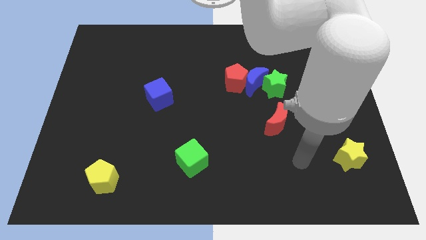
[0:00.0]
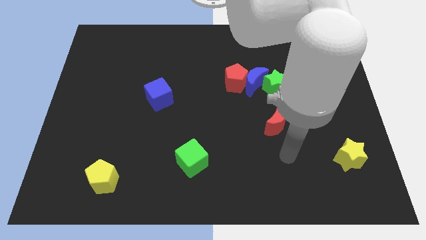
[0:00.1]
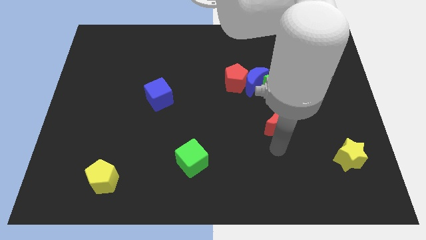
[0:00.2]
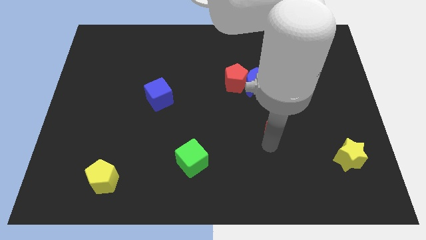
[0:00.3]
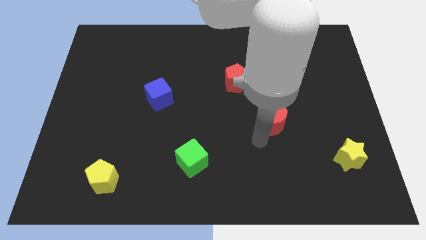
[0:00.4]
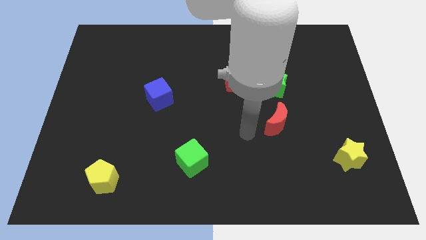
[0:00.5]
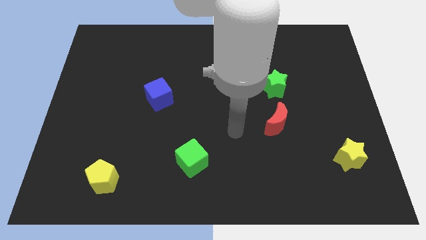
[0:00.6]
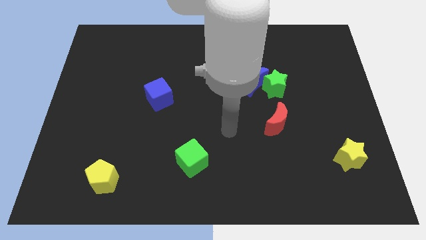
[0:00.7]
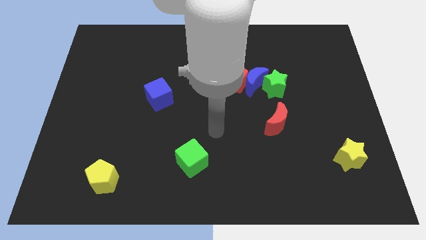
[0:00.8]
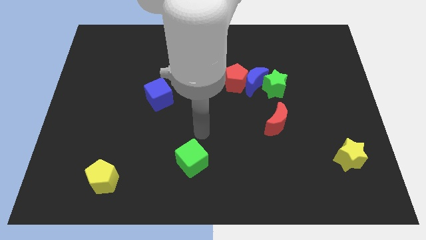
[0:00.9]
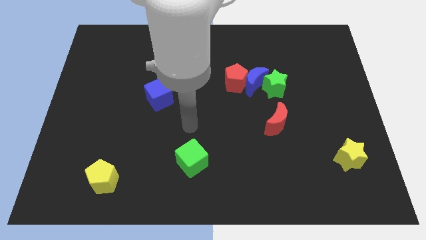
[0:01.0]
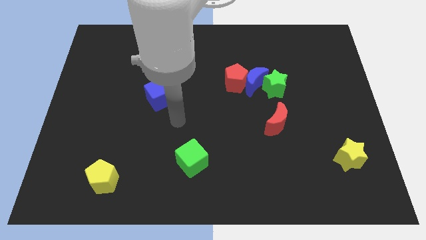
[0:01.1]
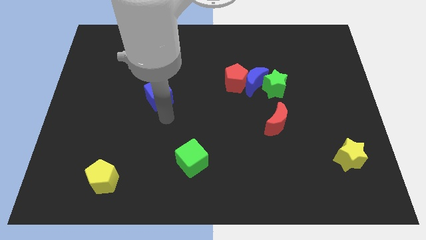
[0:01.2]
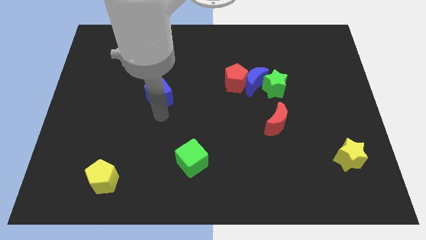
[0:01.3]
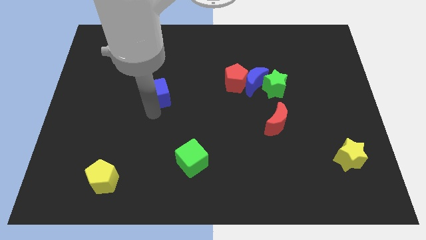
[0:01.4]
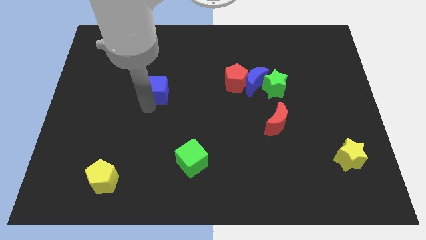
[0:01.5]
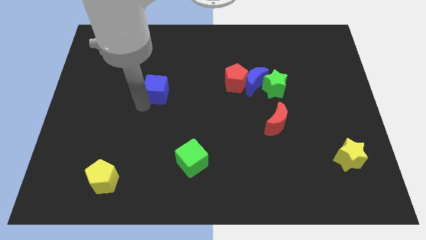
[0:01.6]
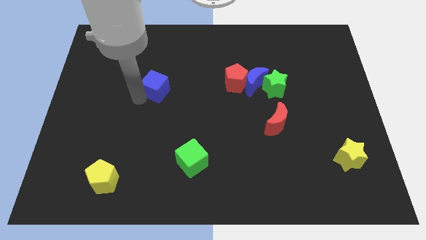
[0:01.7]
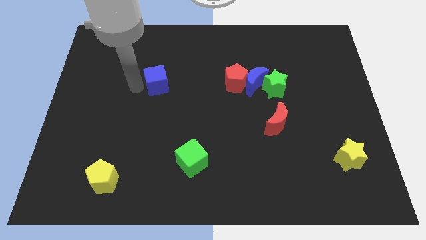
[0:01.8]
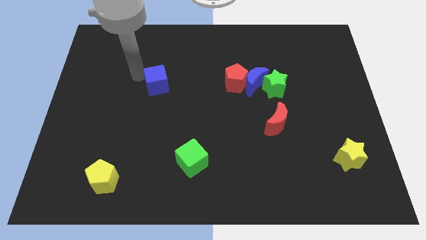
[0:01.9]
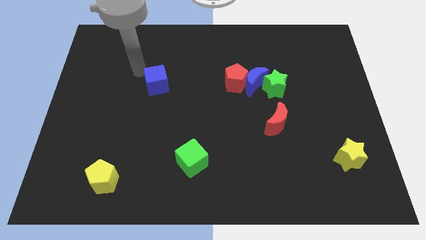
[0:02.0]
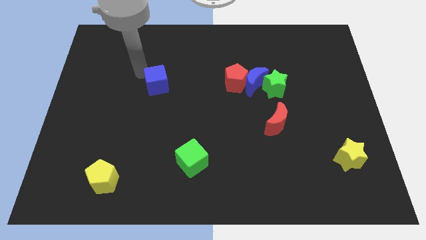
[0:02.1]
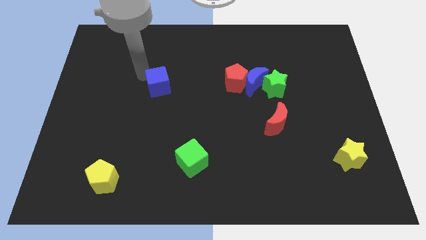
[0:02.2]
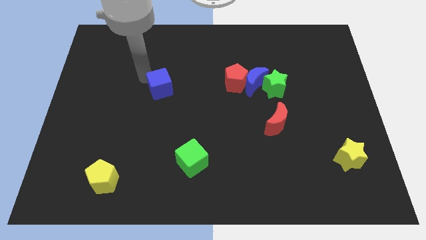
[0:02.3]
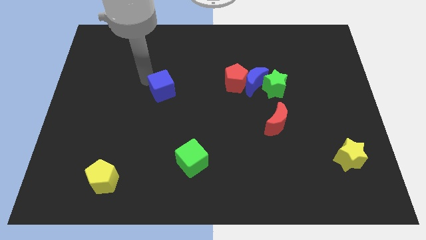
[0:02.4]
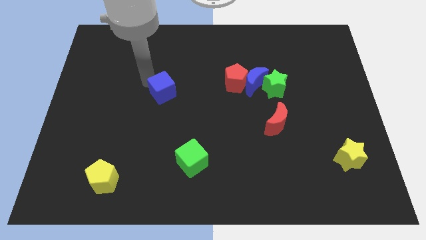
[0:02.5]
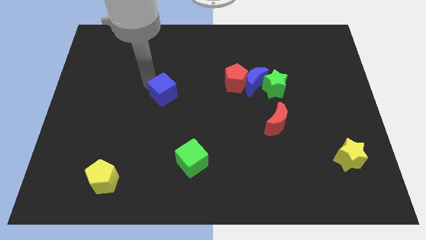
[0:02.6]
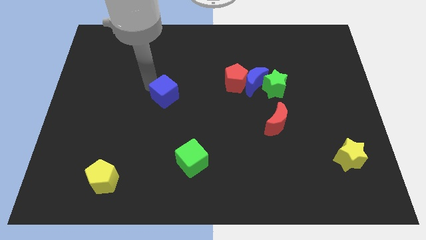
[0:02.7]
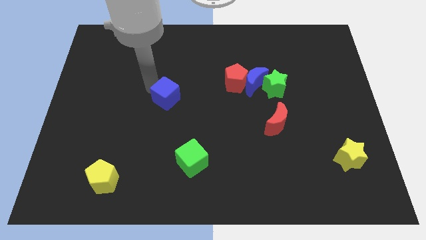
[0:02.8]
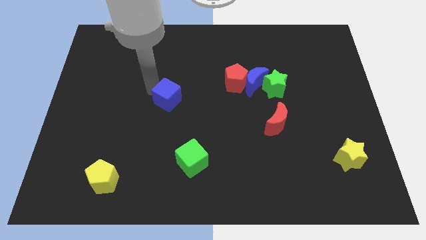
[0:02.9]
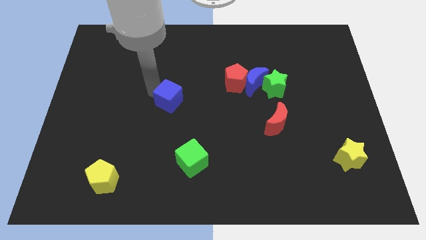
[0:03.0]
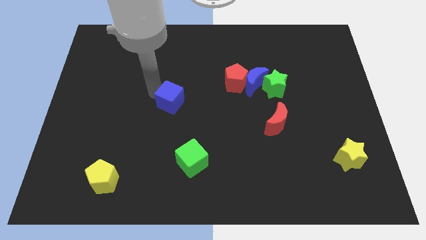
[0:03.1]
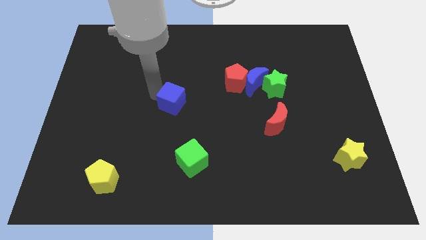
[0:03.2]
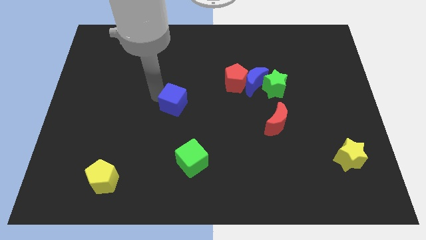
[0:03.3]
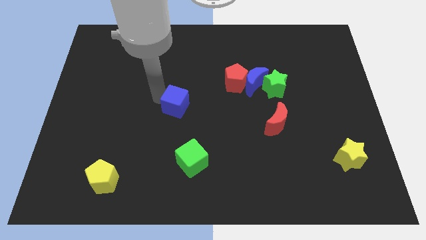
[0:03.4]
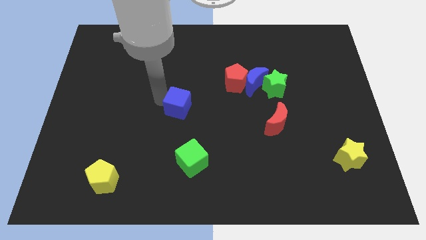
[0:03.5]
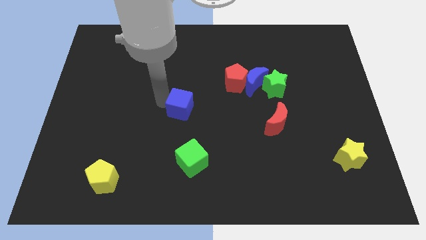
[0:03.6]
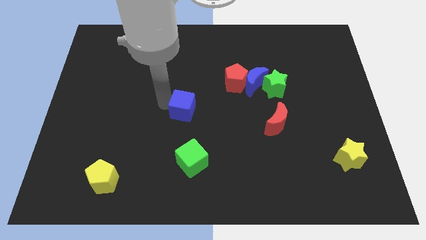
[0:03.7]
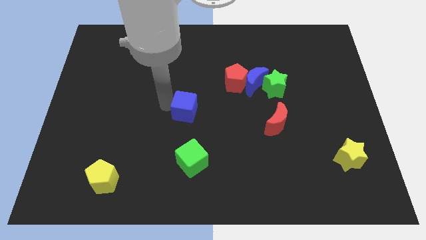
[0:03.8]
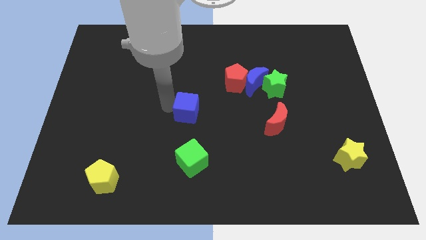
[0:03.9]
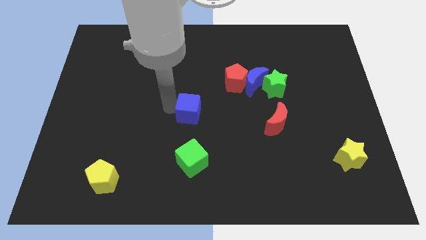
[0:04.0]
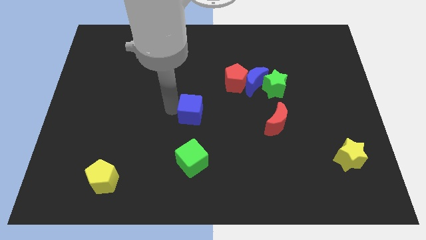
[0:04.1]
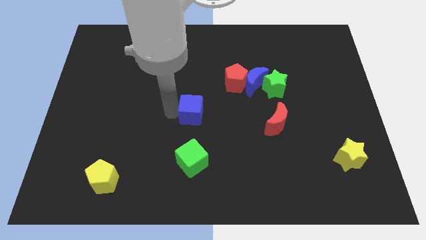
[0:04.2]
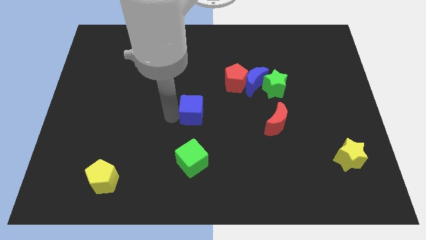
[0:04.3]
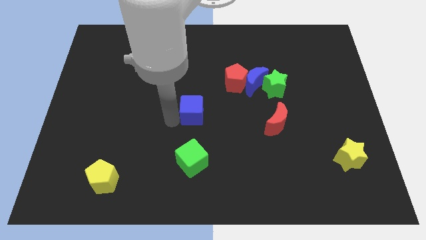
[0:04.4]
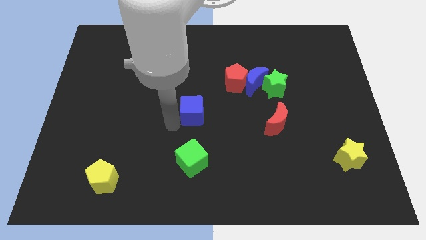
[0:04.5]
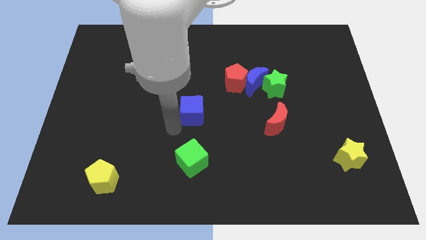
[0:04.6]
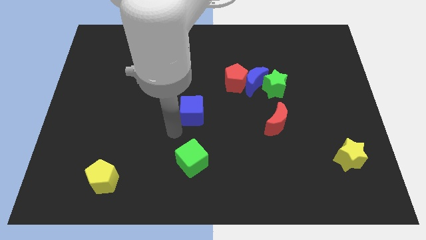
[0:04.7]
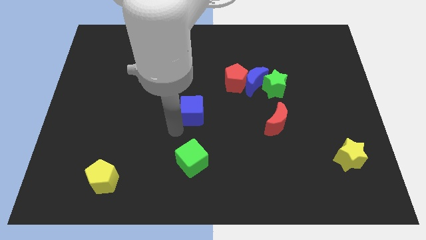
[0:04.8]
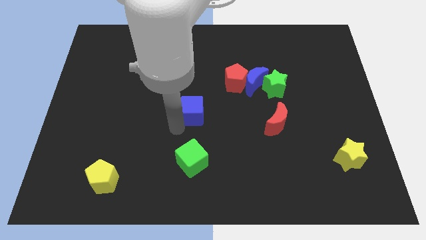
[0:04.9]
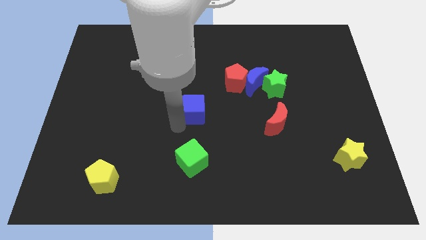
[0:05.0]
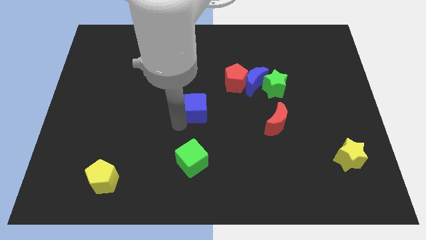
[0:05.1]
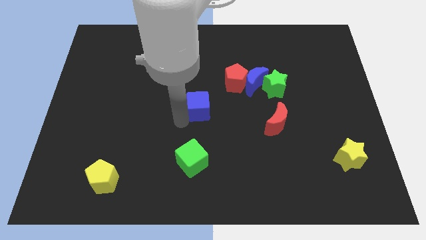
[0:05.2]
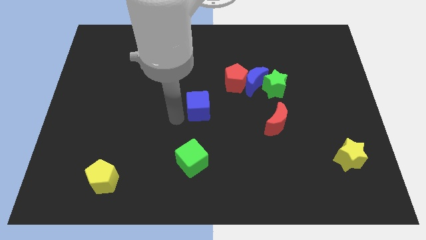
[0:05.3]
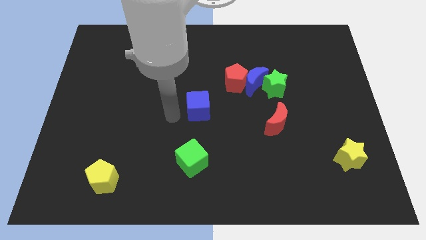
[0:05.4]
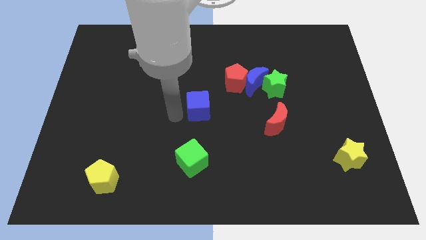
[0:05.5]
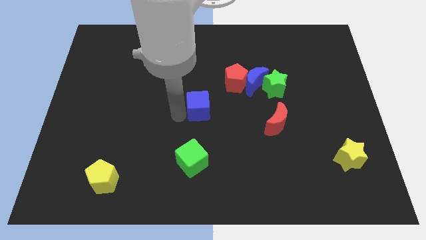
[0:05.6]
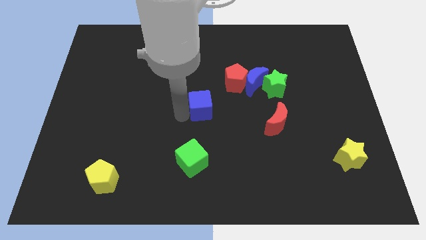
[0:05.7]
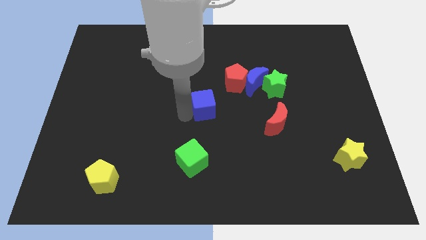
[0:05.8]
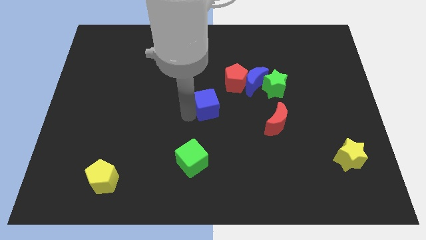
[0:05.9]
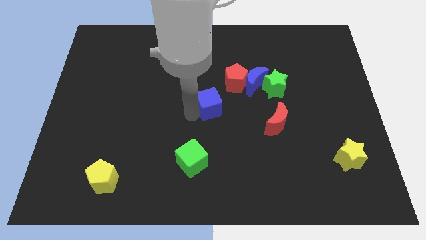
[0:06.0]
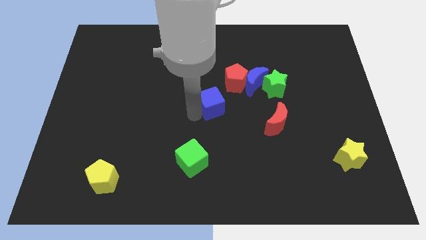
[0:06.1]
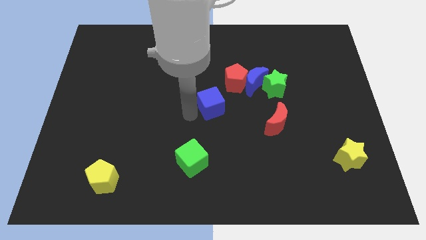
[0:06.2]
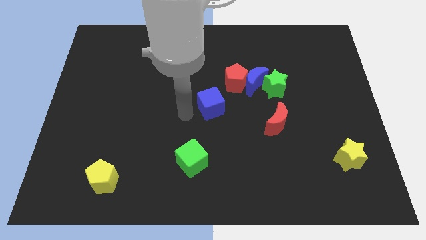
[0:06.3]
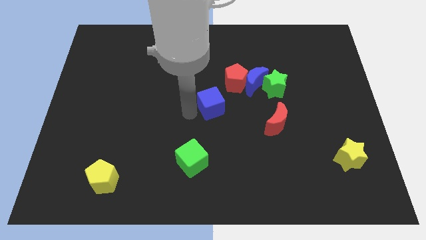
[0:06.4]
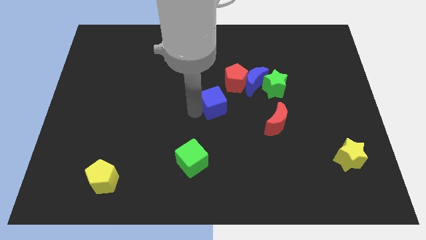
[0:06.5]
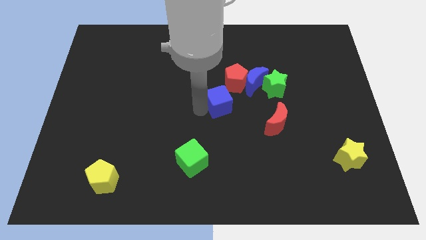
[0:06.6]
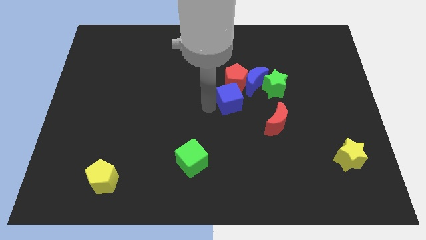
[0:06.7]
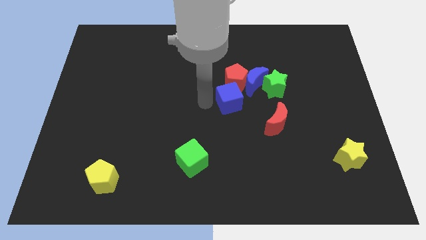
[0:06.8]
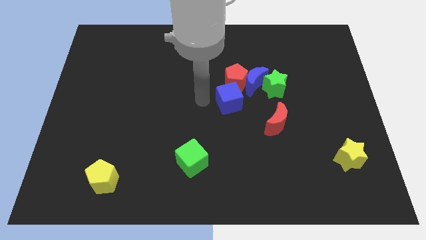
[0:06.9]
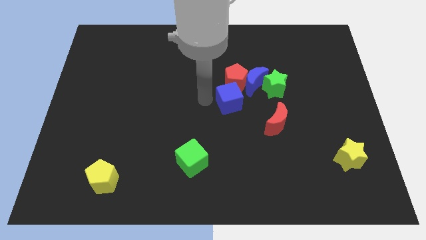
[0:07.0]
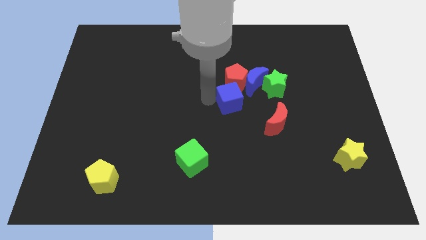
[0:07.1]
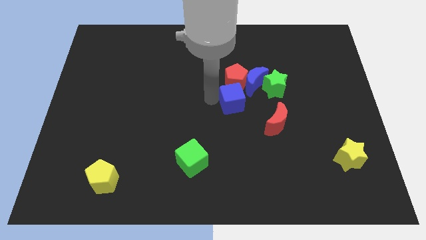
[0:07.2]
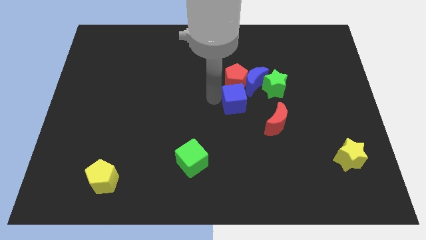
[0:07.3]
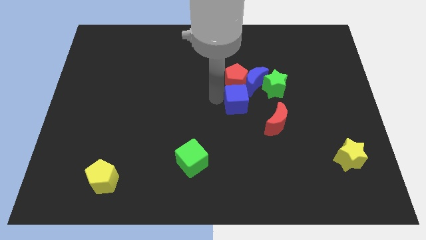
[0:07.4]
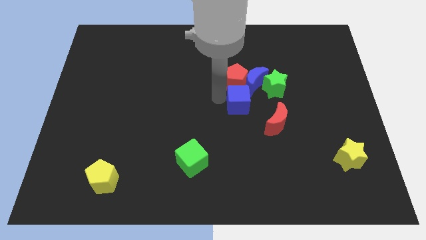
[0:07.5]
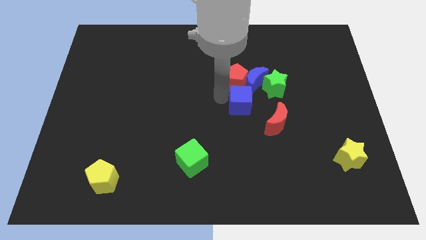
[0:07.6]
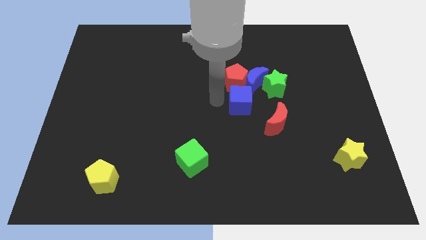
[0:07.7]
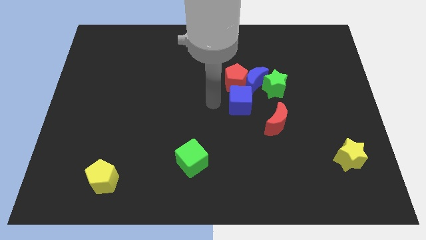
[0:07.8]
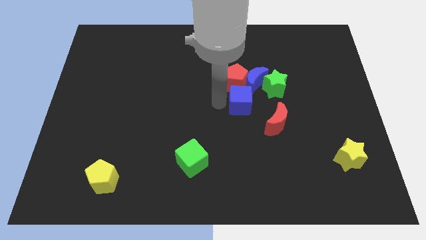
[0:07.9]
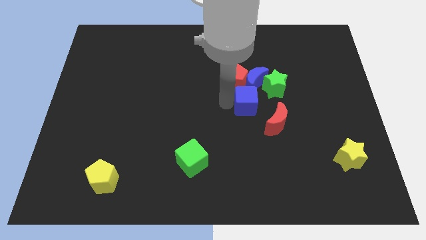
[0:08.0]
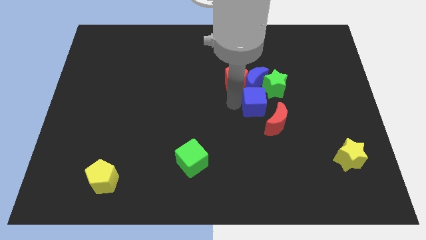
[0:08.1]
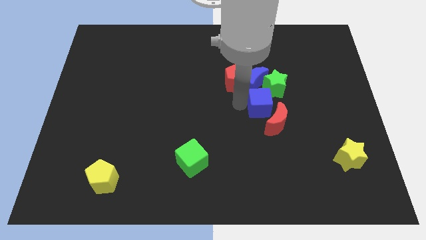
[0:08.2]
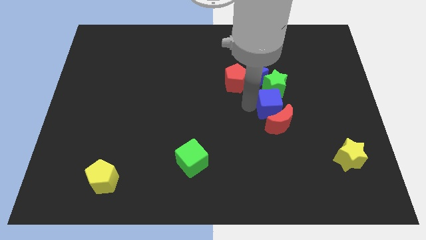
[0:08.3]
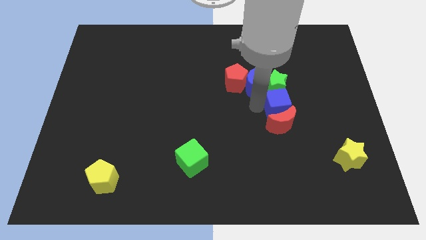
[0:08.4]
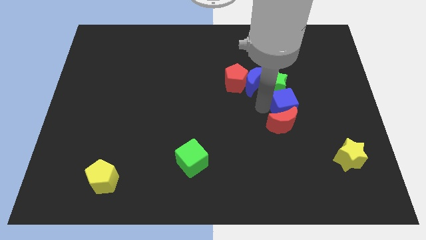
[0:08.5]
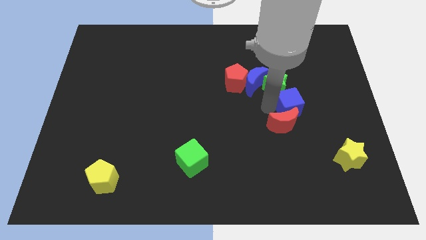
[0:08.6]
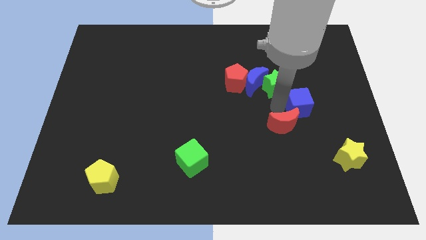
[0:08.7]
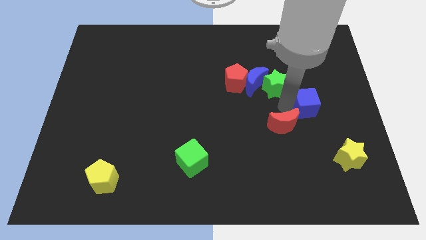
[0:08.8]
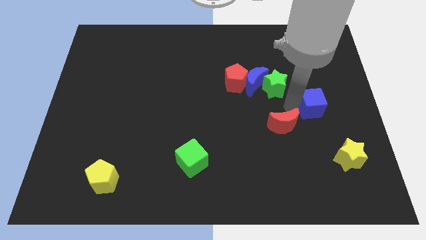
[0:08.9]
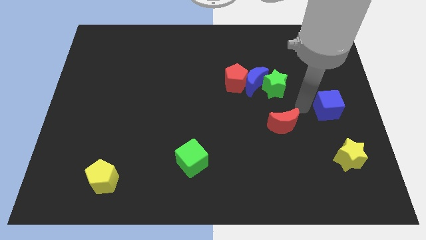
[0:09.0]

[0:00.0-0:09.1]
put the blue cube to the center right
